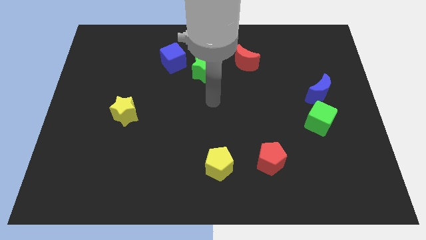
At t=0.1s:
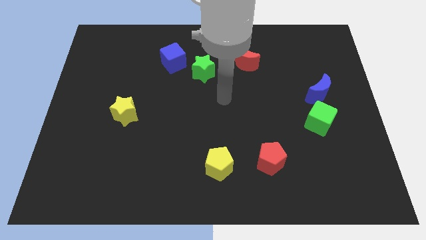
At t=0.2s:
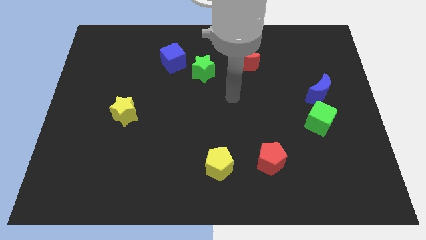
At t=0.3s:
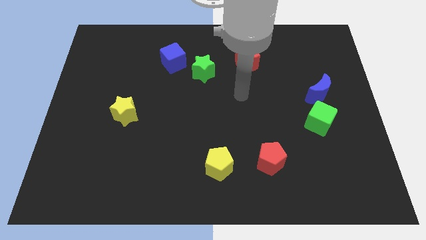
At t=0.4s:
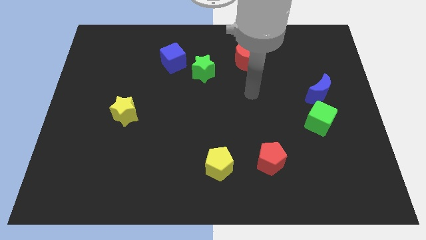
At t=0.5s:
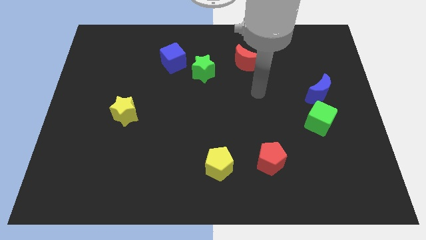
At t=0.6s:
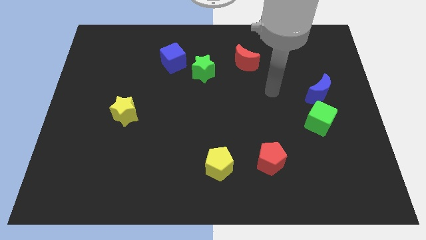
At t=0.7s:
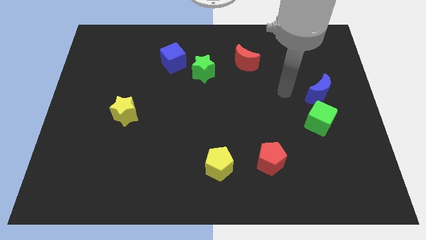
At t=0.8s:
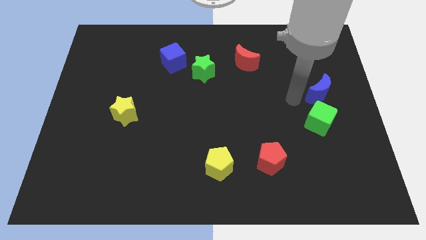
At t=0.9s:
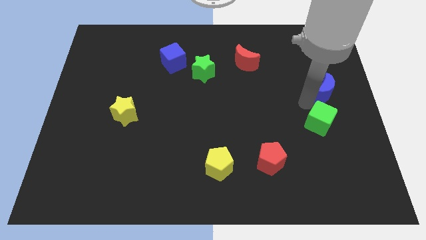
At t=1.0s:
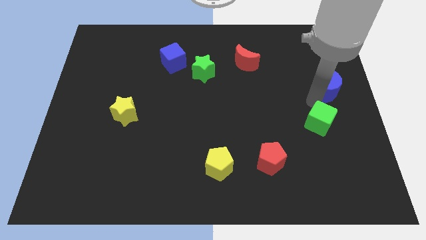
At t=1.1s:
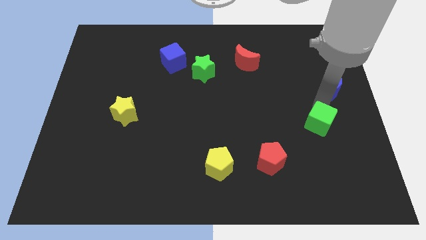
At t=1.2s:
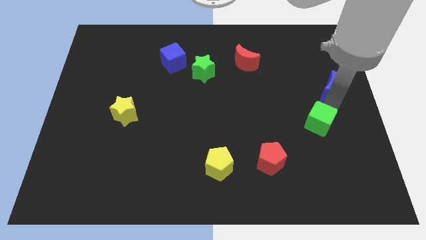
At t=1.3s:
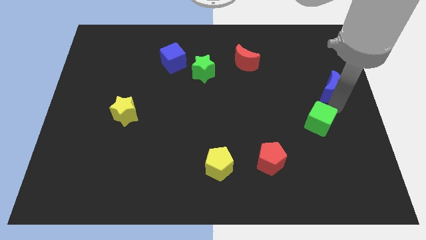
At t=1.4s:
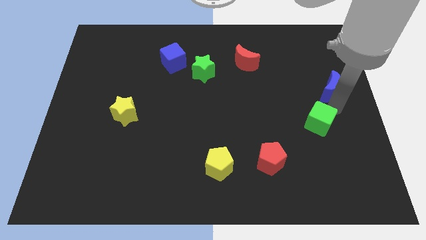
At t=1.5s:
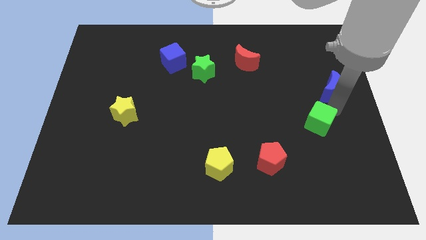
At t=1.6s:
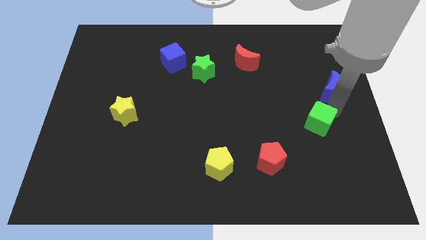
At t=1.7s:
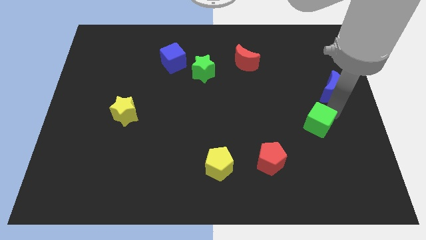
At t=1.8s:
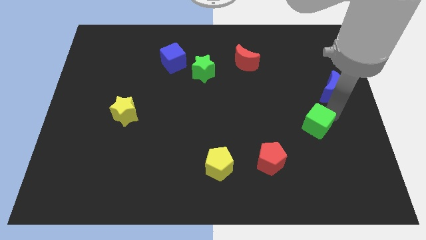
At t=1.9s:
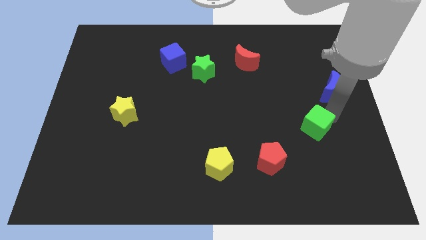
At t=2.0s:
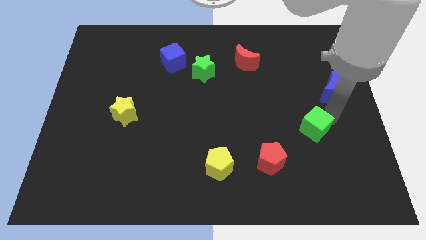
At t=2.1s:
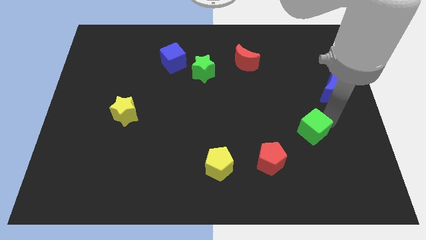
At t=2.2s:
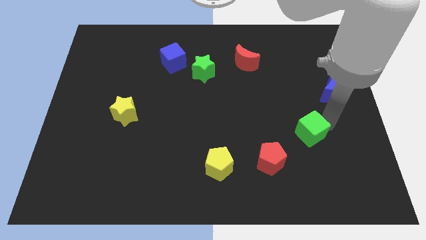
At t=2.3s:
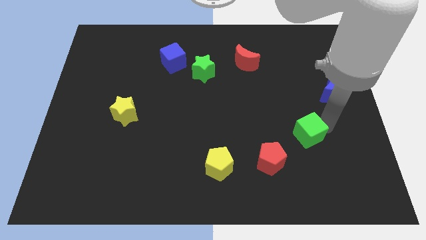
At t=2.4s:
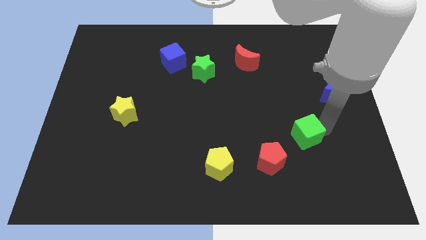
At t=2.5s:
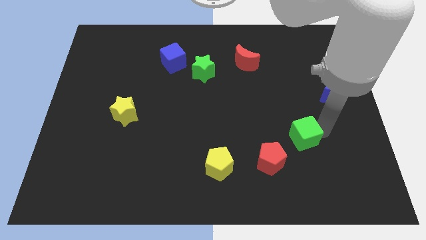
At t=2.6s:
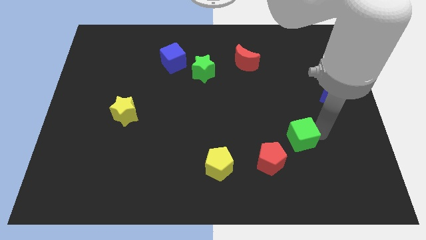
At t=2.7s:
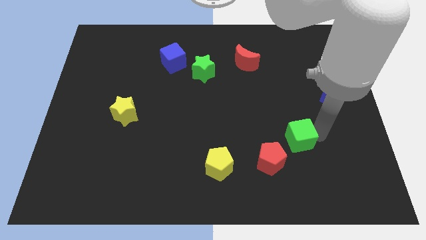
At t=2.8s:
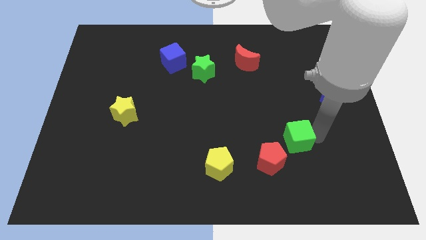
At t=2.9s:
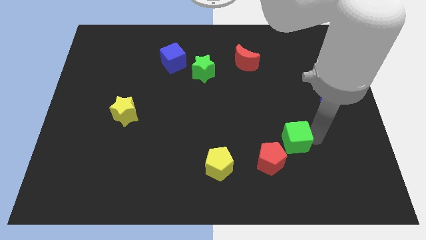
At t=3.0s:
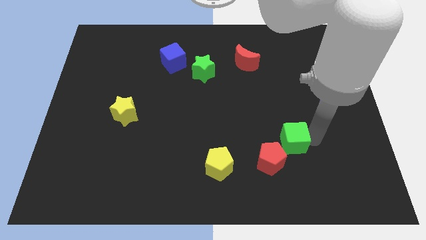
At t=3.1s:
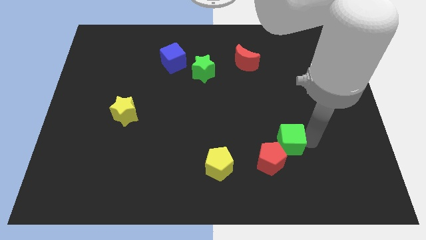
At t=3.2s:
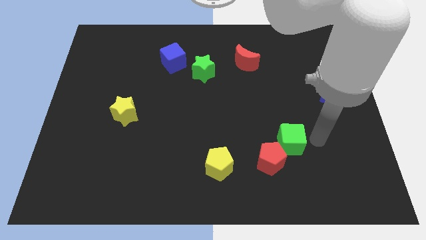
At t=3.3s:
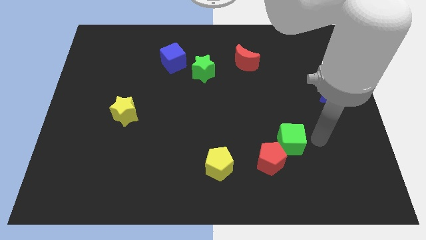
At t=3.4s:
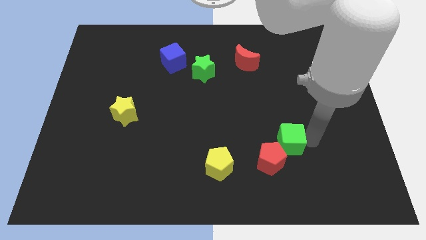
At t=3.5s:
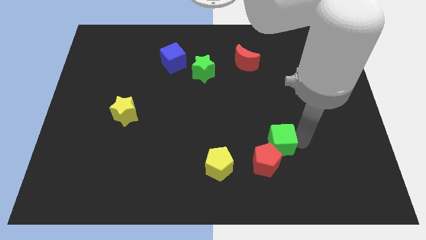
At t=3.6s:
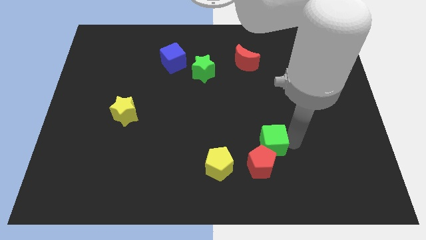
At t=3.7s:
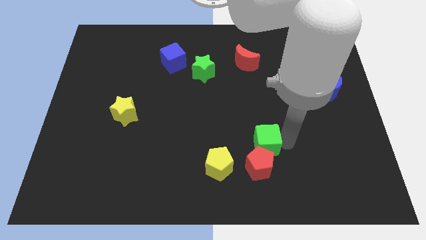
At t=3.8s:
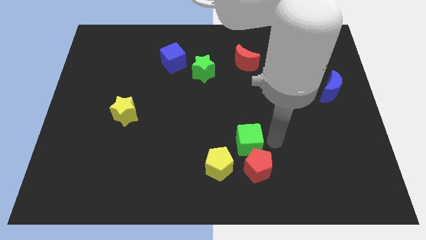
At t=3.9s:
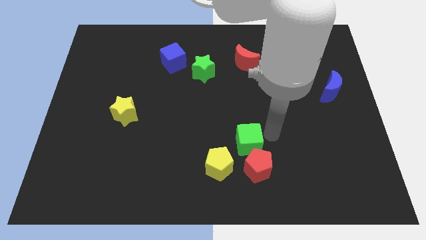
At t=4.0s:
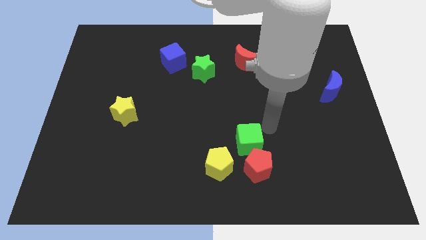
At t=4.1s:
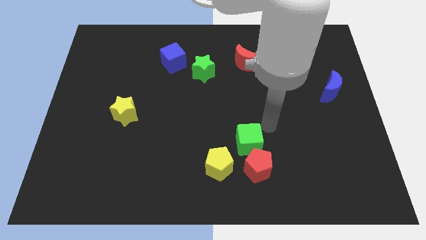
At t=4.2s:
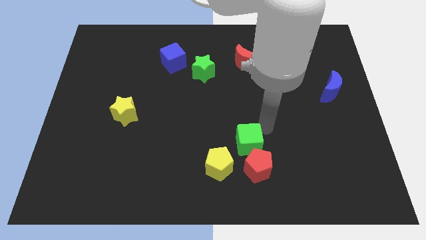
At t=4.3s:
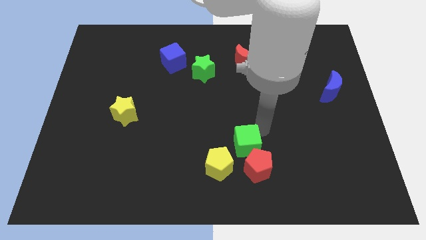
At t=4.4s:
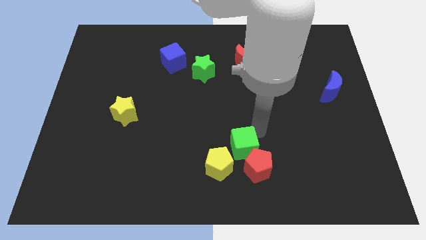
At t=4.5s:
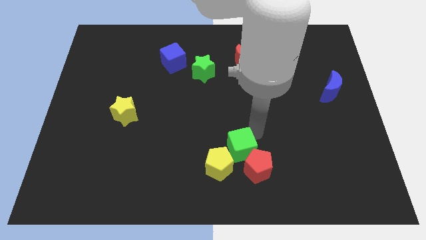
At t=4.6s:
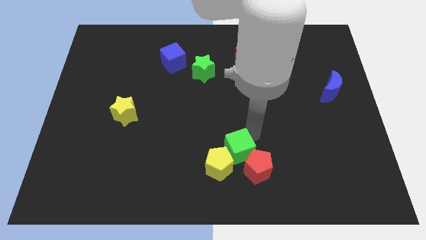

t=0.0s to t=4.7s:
push the green cube to the yellow pentagon

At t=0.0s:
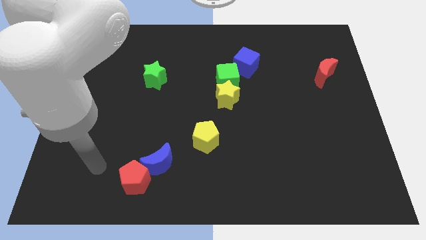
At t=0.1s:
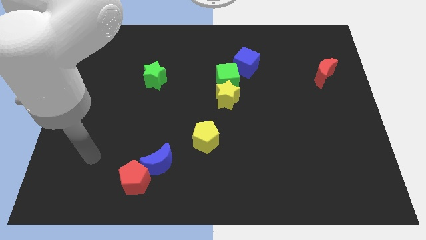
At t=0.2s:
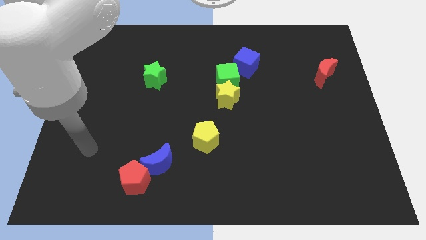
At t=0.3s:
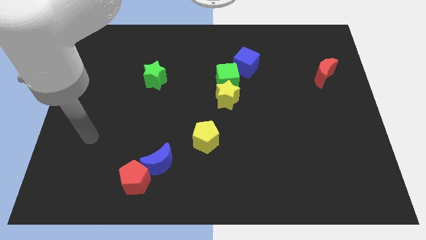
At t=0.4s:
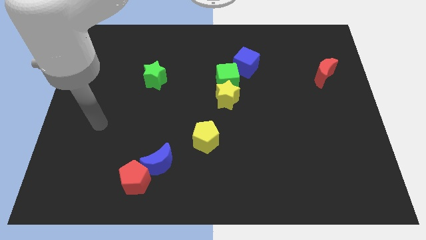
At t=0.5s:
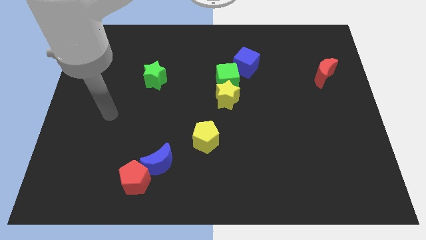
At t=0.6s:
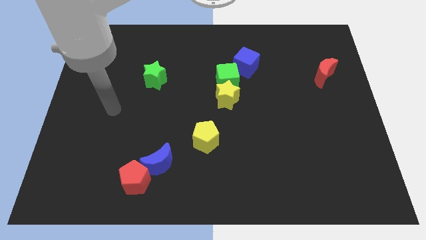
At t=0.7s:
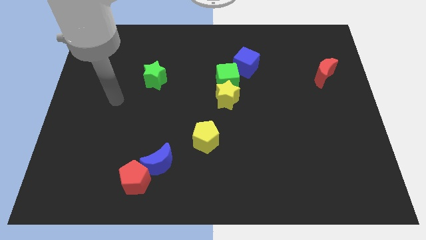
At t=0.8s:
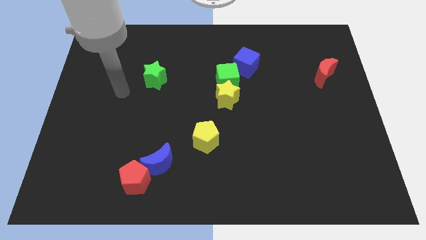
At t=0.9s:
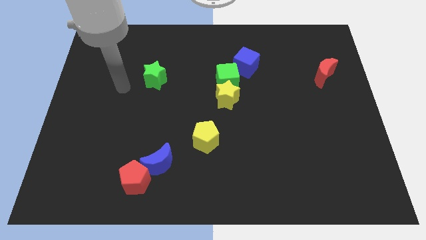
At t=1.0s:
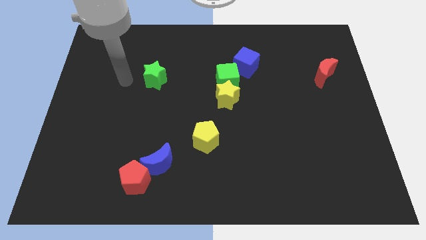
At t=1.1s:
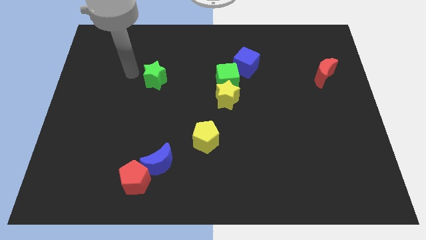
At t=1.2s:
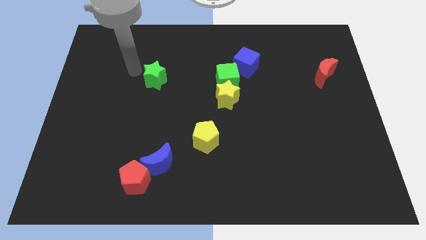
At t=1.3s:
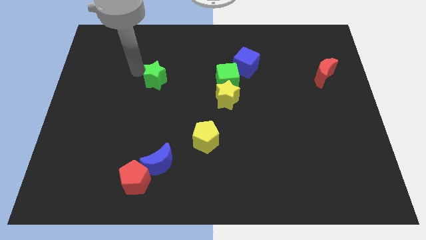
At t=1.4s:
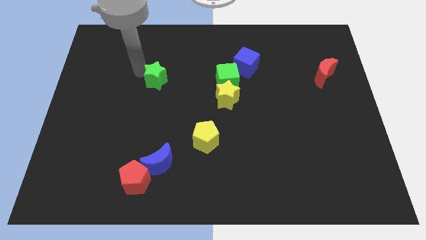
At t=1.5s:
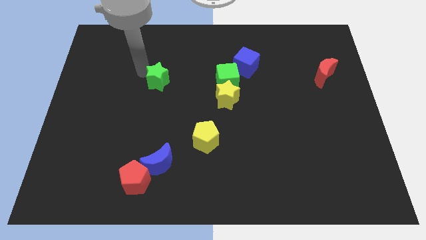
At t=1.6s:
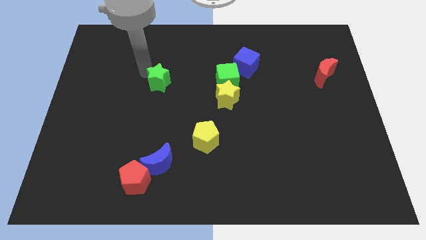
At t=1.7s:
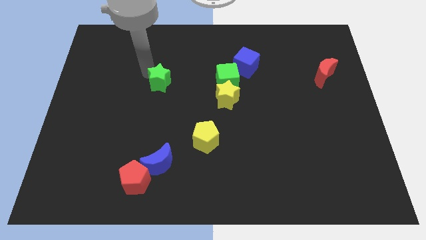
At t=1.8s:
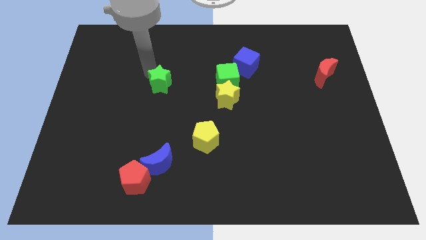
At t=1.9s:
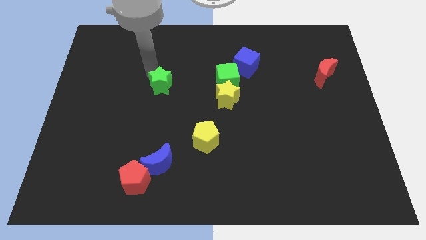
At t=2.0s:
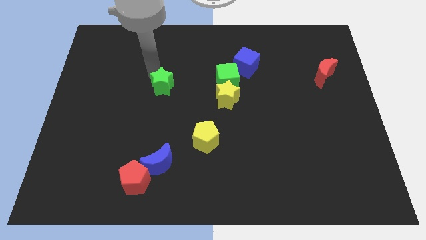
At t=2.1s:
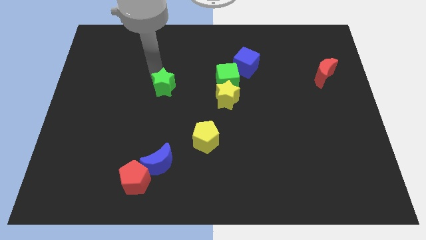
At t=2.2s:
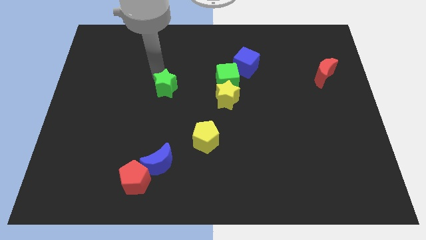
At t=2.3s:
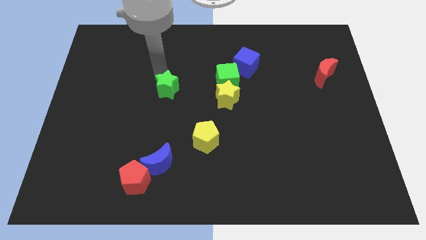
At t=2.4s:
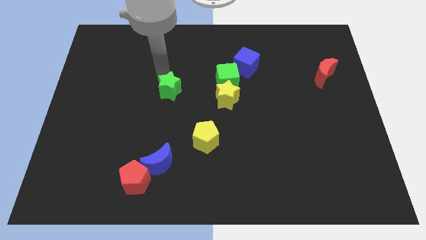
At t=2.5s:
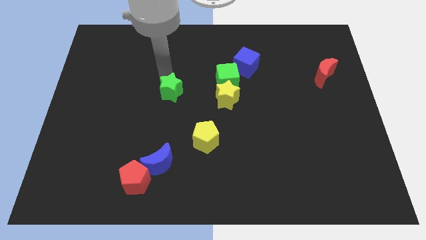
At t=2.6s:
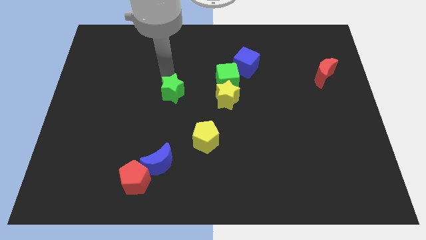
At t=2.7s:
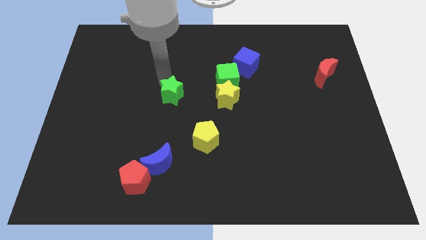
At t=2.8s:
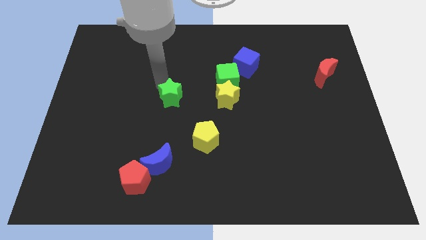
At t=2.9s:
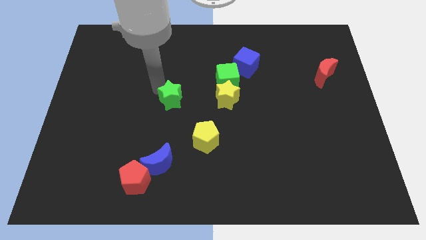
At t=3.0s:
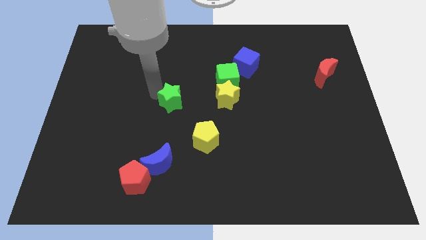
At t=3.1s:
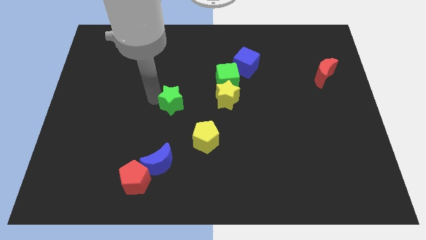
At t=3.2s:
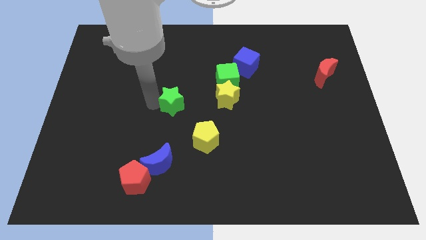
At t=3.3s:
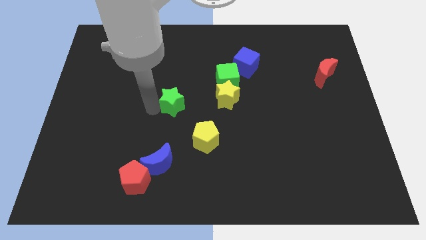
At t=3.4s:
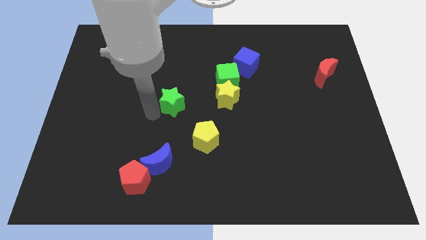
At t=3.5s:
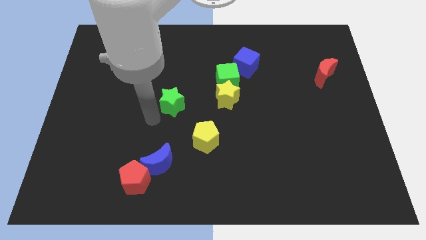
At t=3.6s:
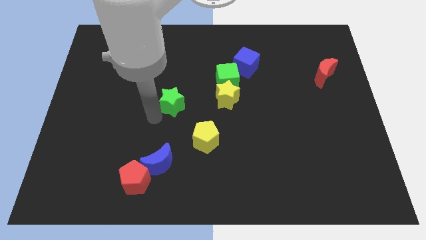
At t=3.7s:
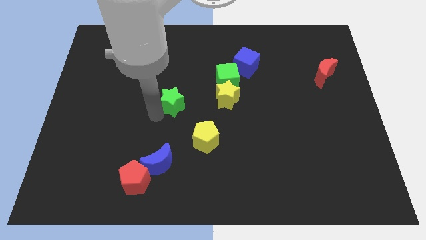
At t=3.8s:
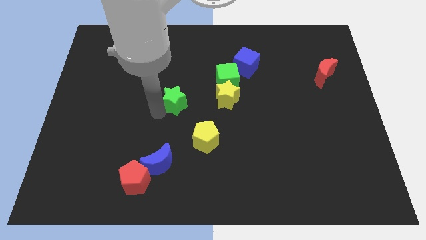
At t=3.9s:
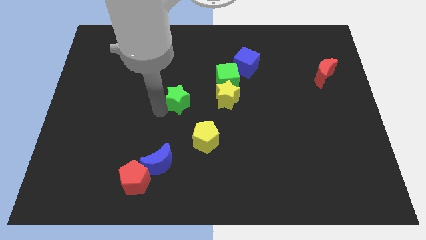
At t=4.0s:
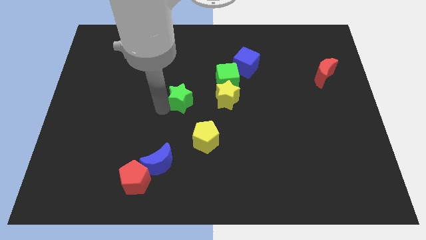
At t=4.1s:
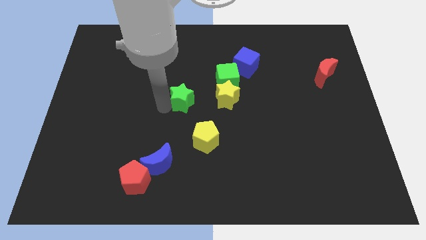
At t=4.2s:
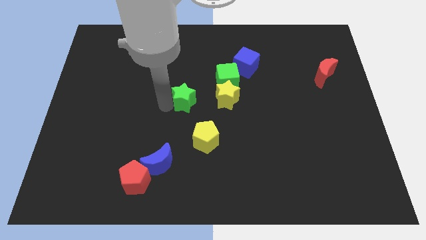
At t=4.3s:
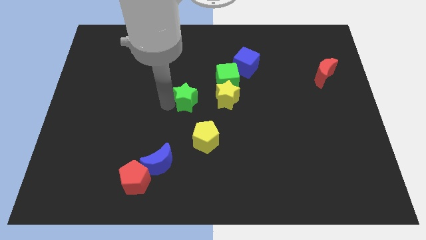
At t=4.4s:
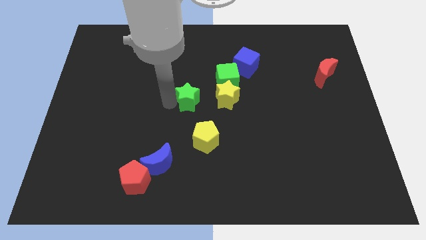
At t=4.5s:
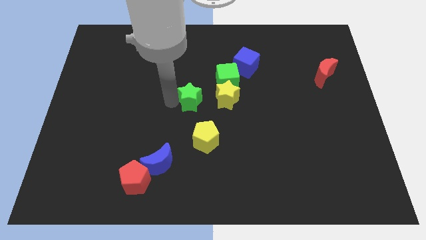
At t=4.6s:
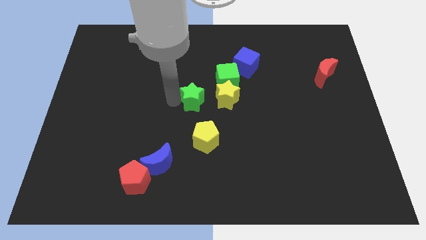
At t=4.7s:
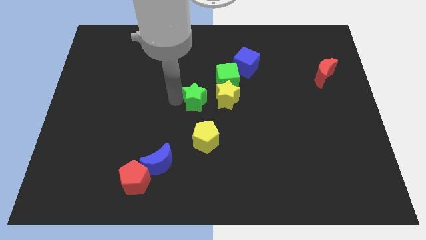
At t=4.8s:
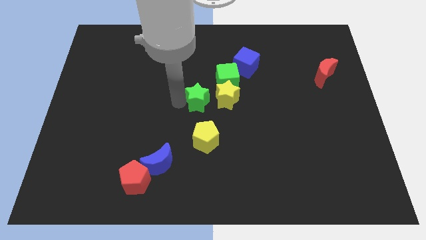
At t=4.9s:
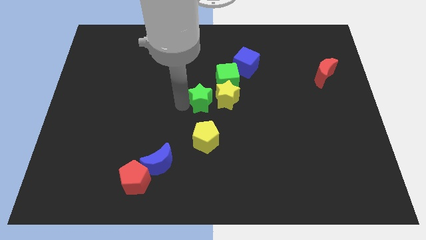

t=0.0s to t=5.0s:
move the green star next to the yellow star
